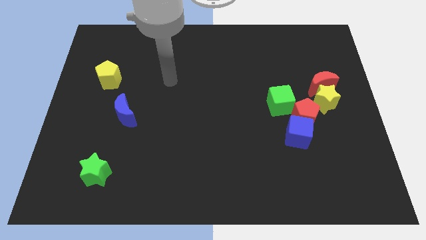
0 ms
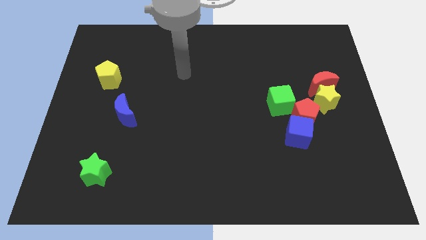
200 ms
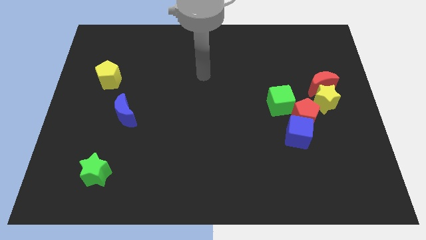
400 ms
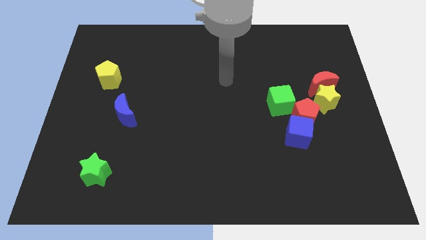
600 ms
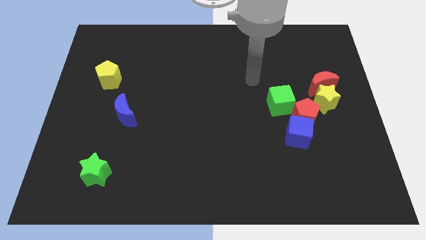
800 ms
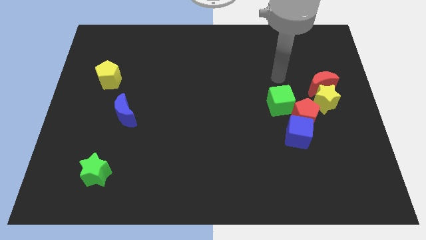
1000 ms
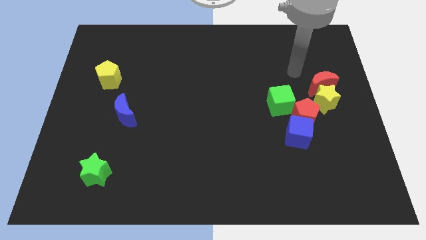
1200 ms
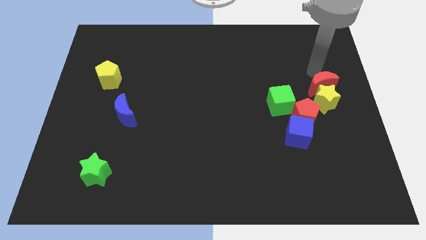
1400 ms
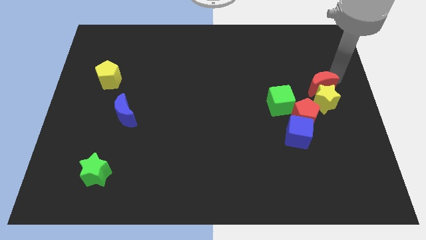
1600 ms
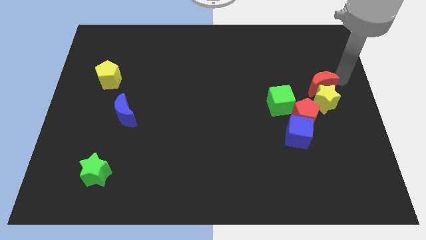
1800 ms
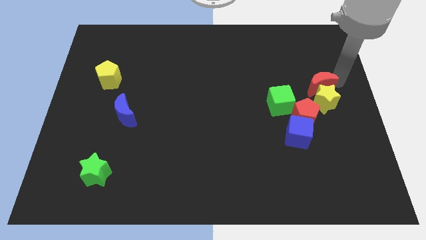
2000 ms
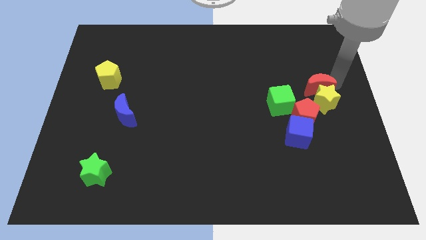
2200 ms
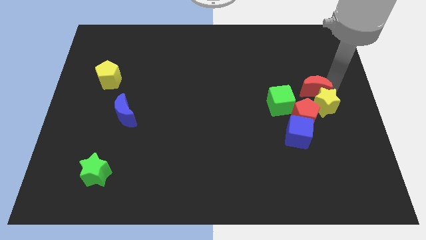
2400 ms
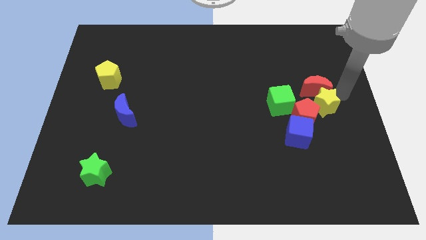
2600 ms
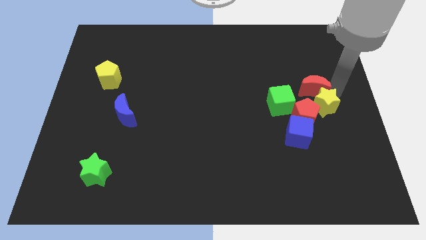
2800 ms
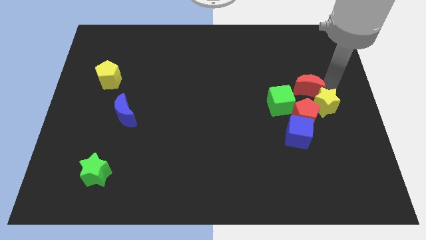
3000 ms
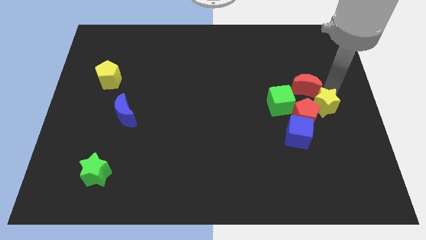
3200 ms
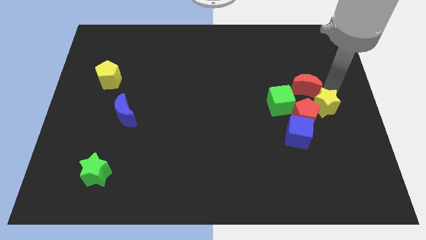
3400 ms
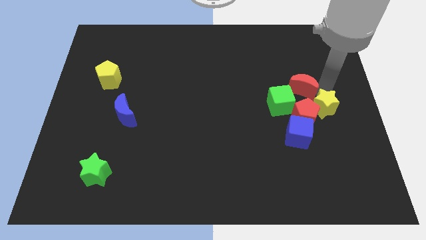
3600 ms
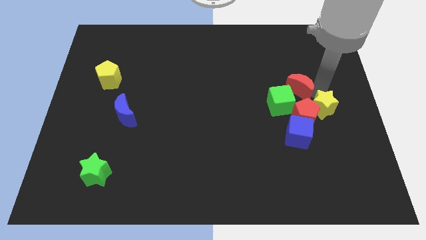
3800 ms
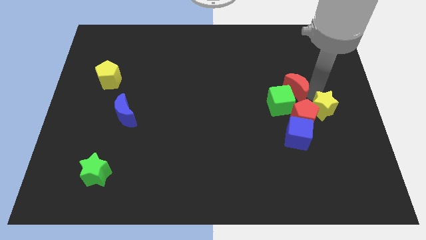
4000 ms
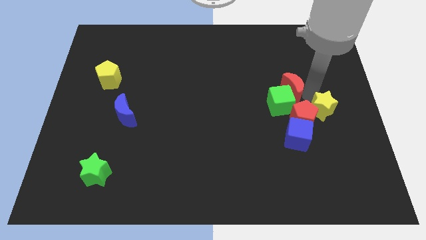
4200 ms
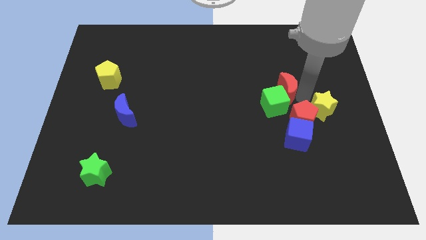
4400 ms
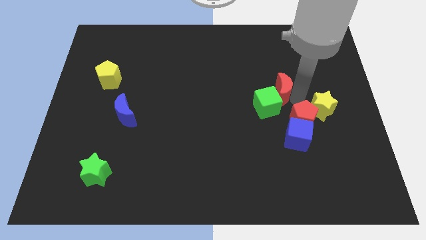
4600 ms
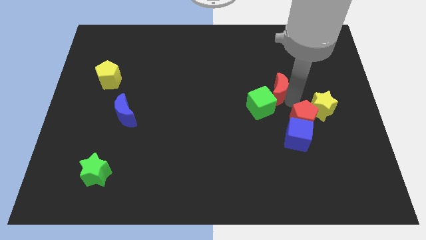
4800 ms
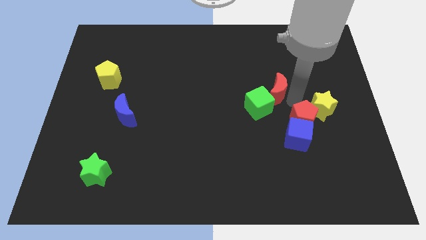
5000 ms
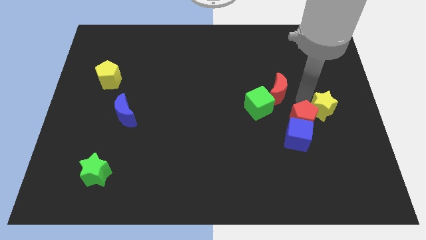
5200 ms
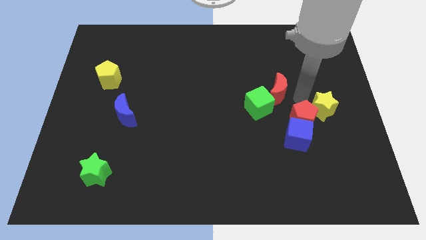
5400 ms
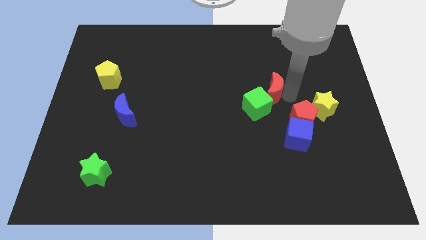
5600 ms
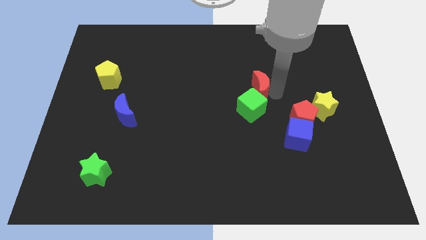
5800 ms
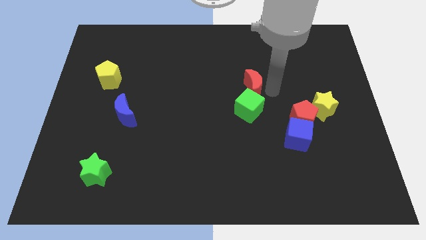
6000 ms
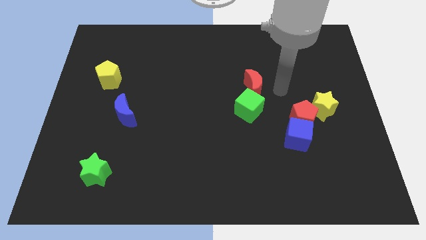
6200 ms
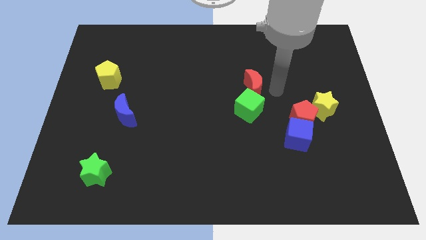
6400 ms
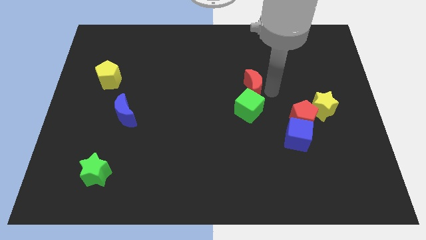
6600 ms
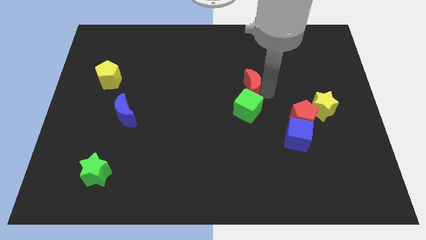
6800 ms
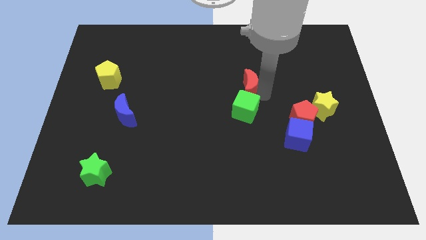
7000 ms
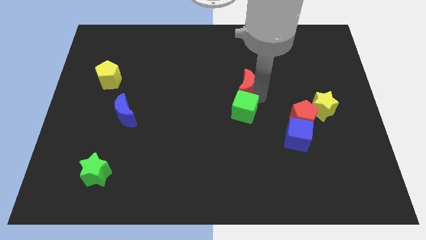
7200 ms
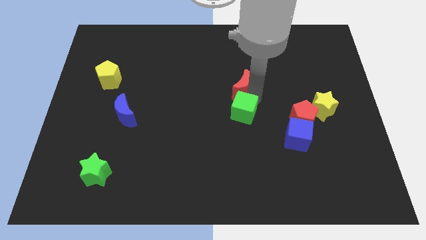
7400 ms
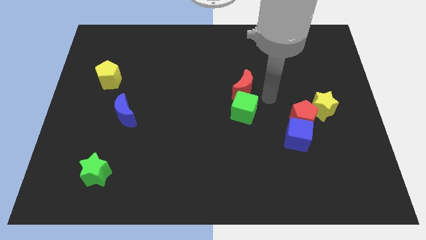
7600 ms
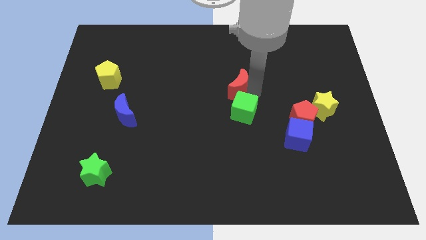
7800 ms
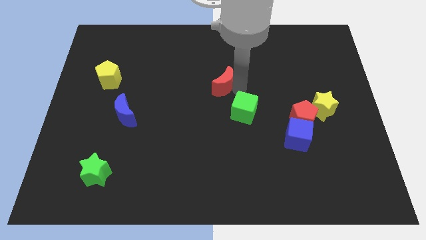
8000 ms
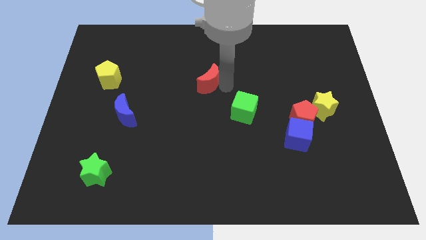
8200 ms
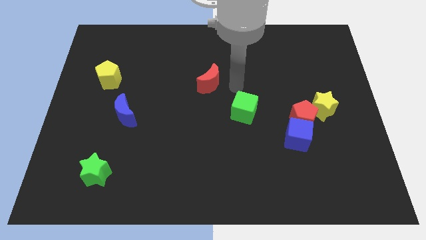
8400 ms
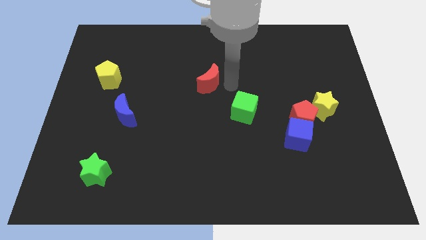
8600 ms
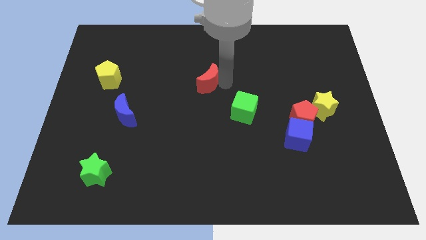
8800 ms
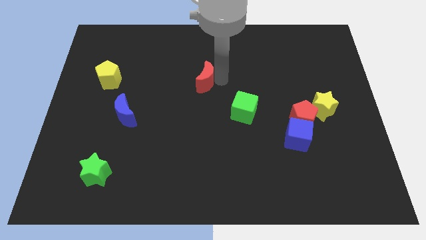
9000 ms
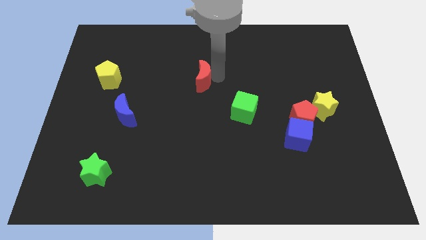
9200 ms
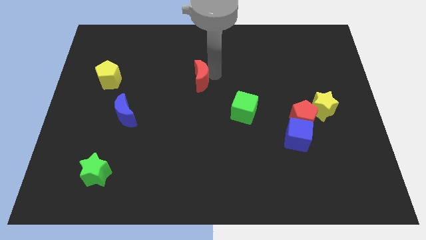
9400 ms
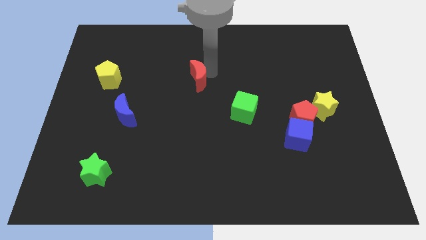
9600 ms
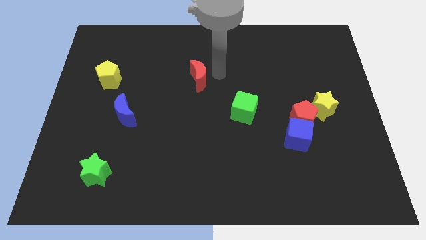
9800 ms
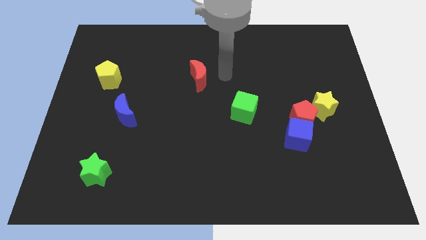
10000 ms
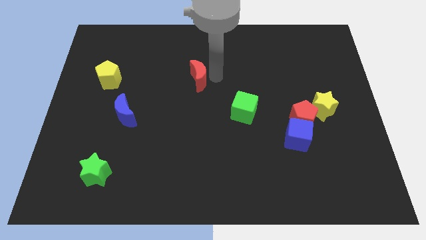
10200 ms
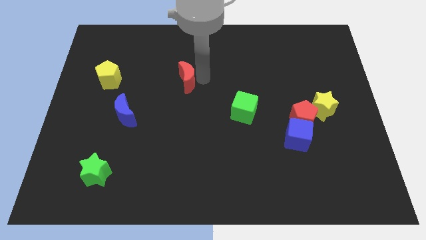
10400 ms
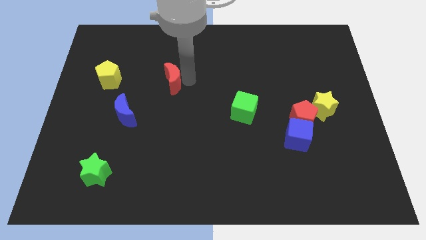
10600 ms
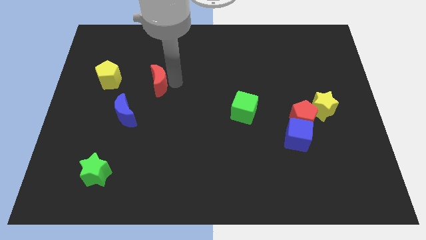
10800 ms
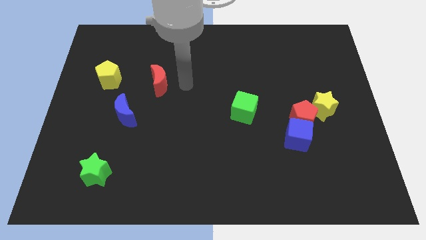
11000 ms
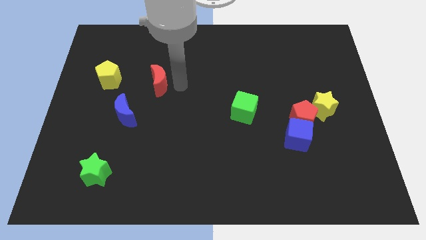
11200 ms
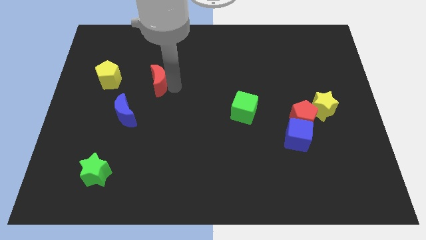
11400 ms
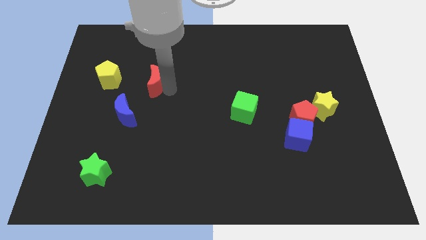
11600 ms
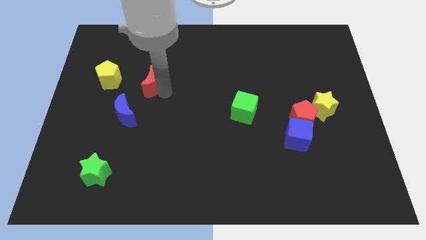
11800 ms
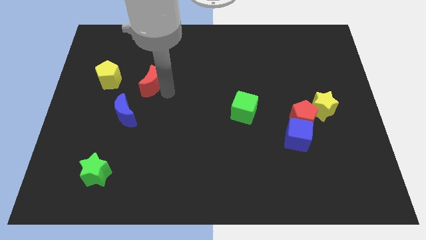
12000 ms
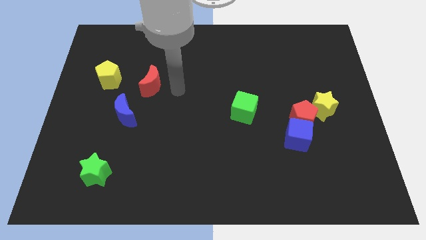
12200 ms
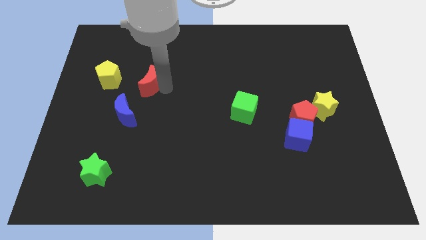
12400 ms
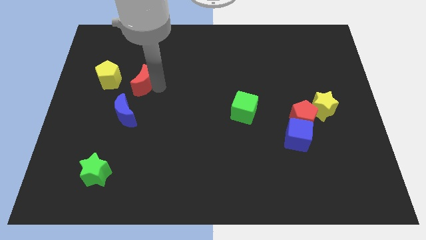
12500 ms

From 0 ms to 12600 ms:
put the red moon to the top of the blue moon
